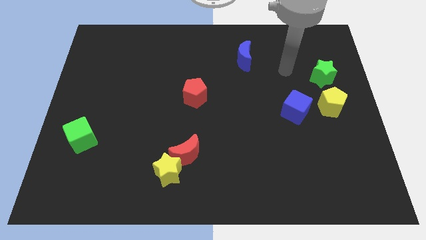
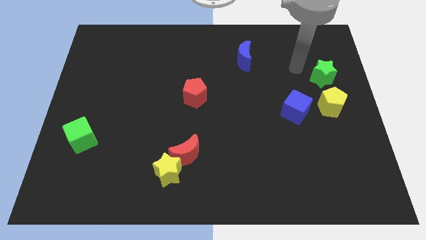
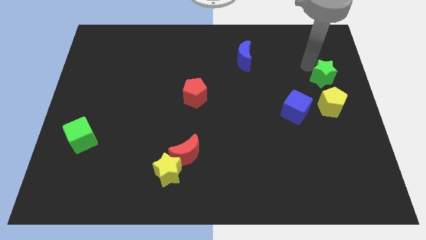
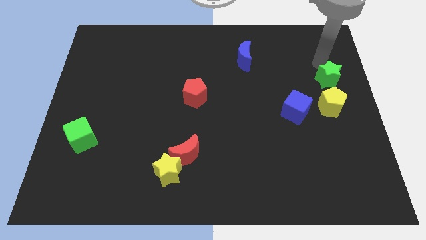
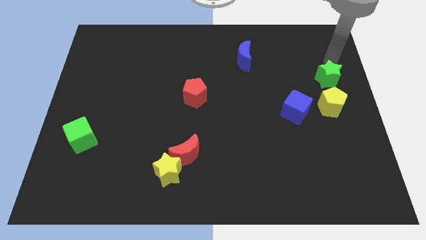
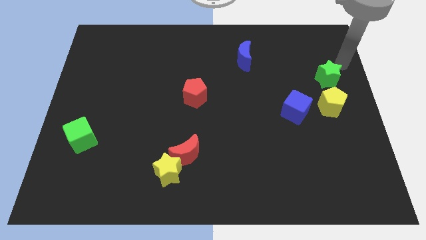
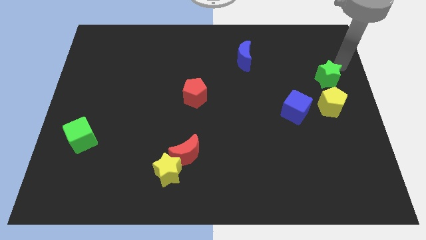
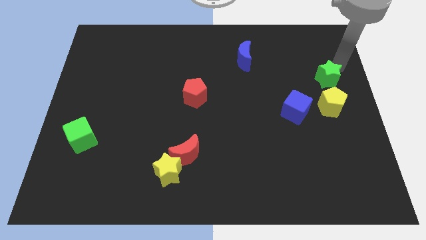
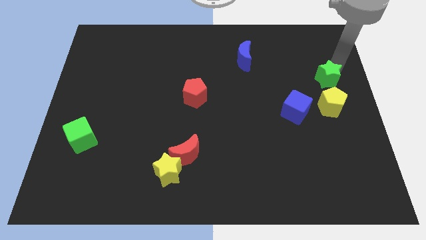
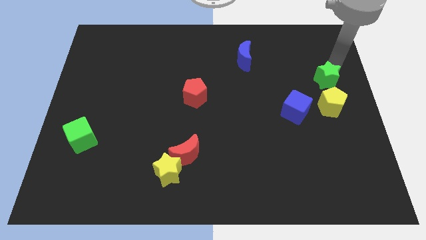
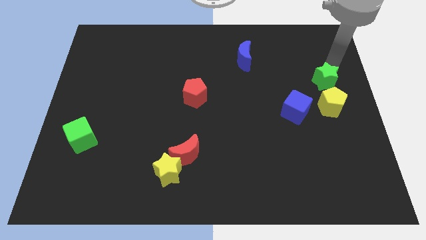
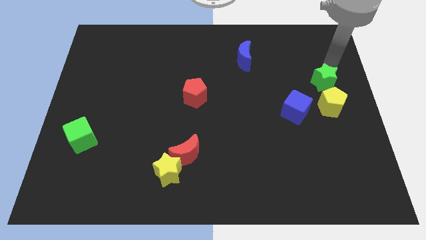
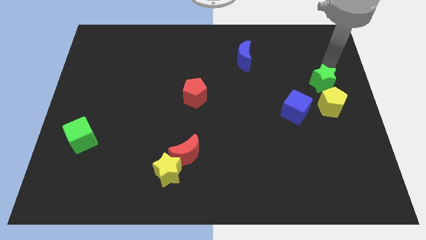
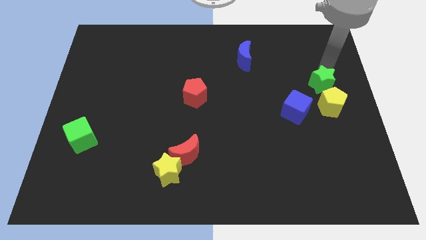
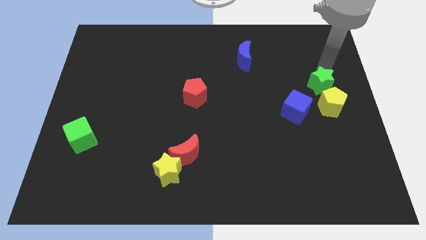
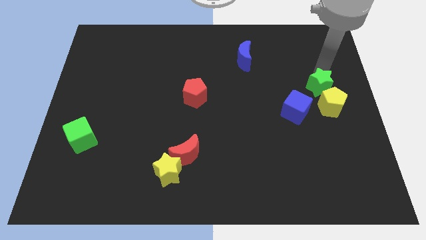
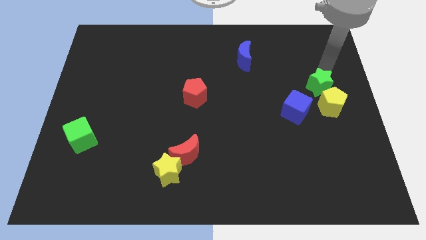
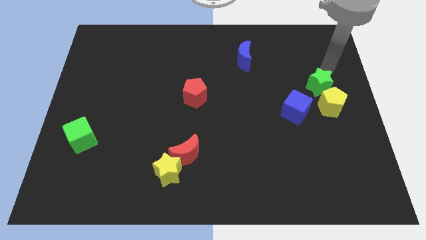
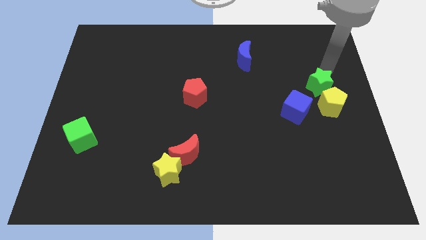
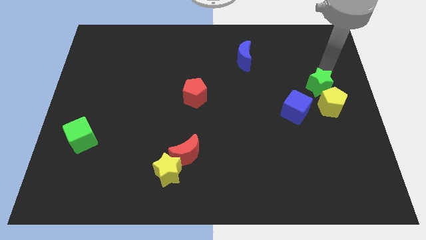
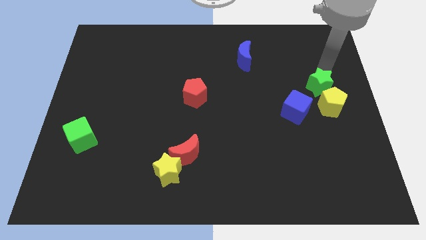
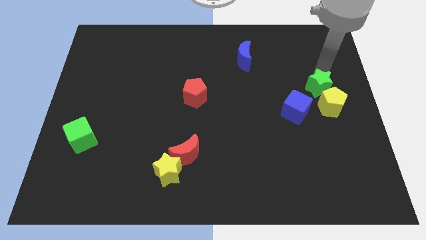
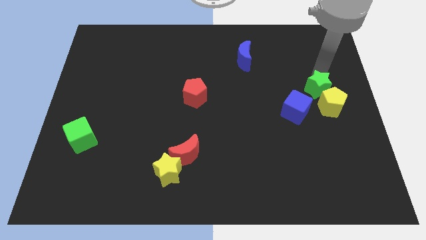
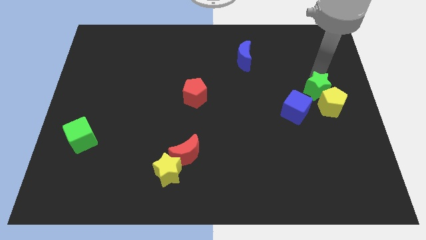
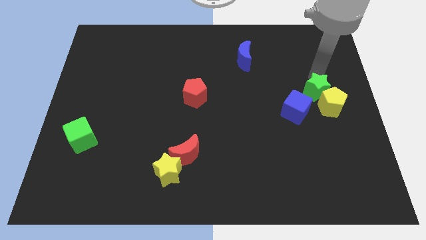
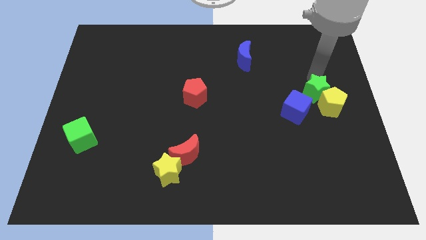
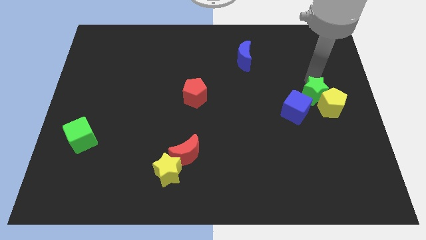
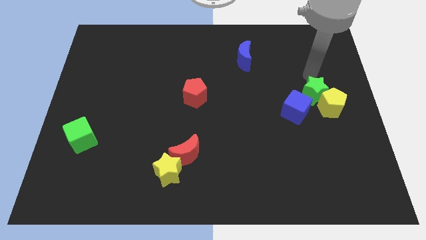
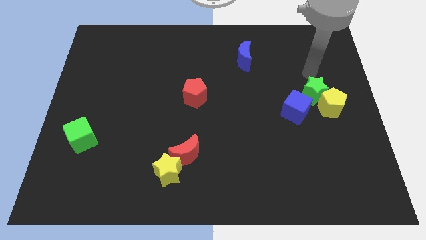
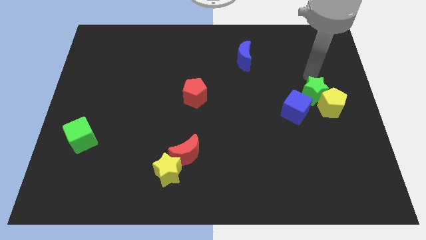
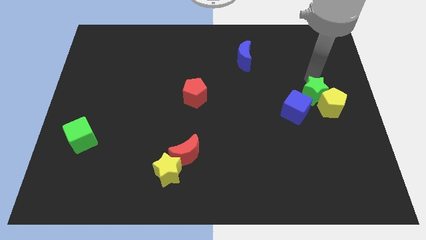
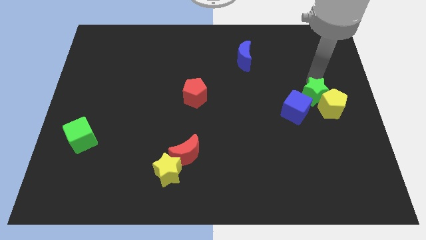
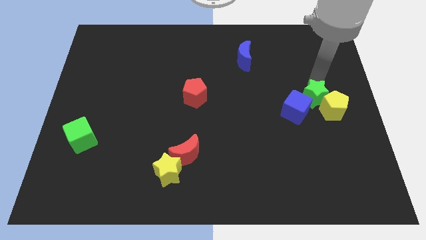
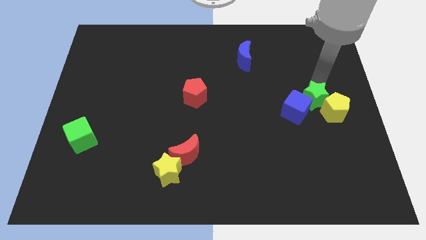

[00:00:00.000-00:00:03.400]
push the green star somewhat downwards

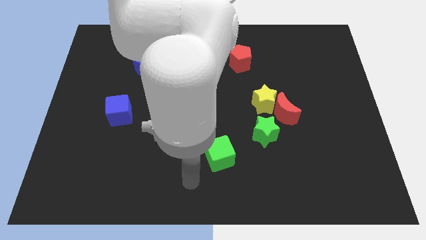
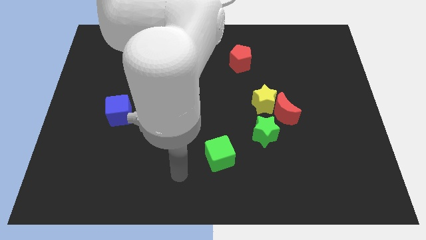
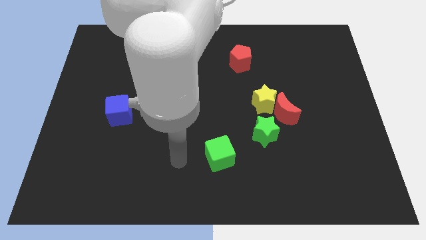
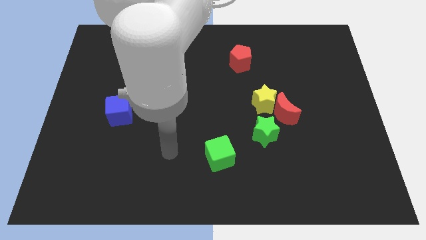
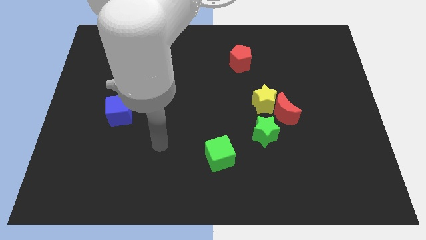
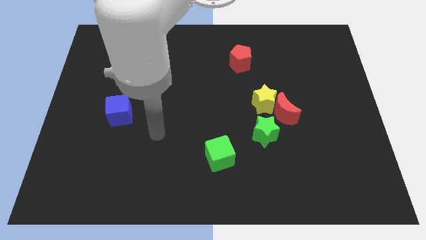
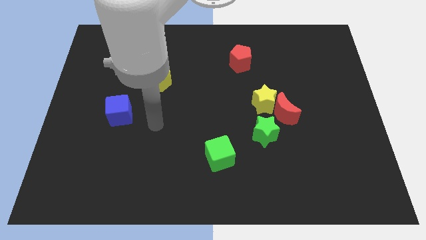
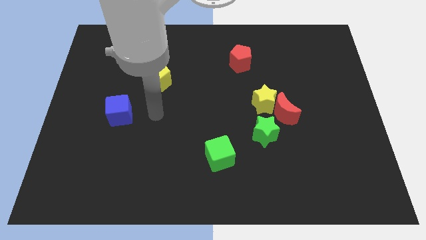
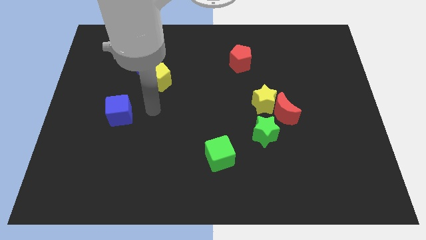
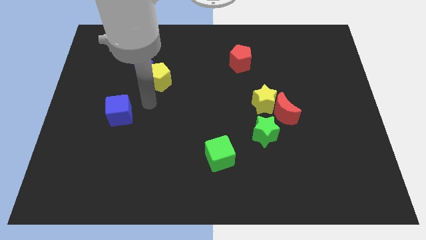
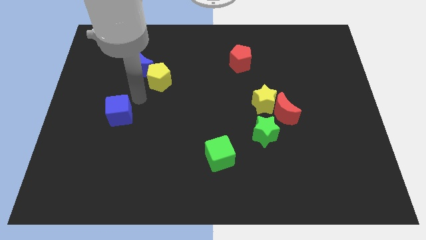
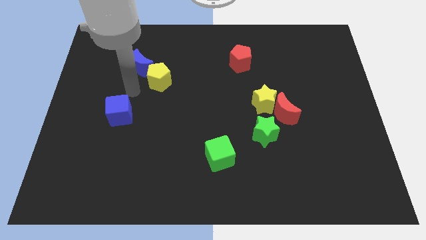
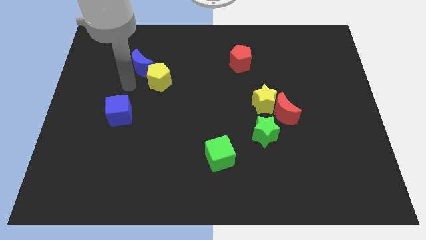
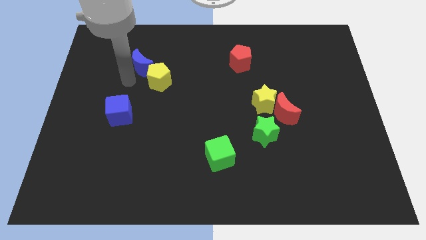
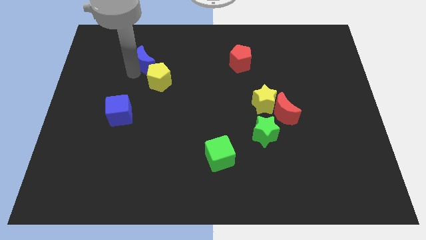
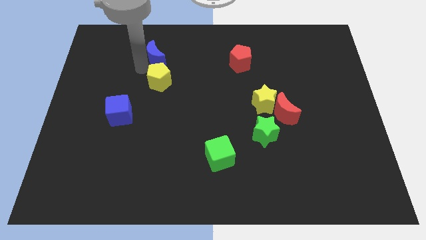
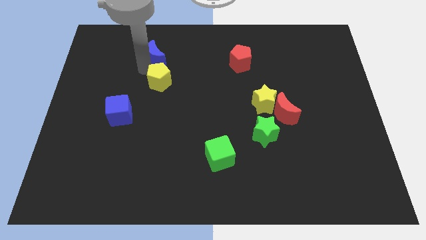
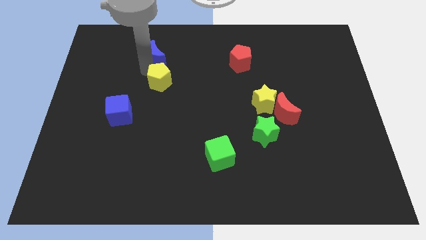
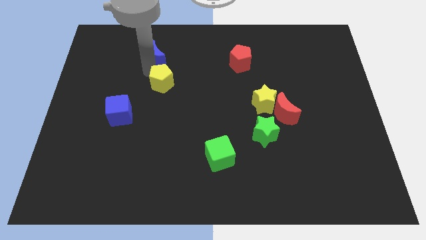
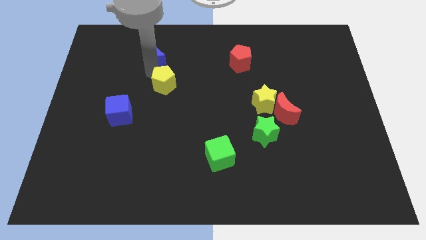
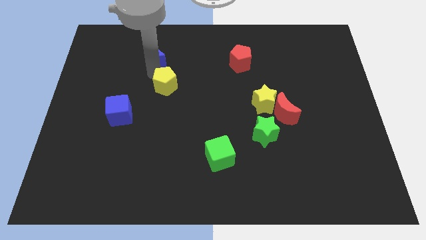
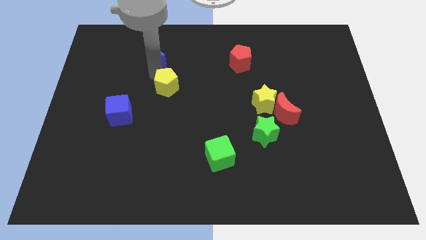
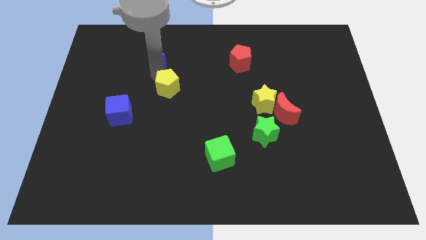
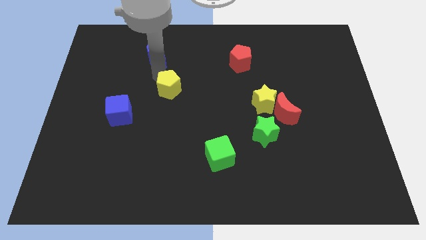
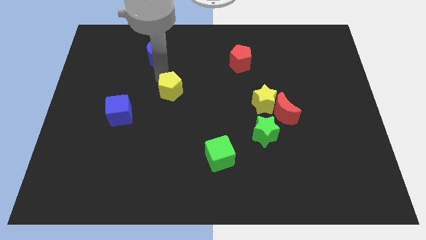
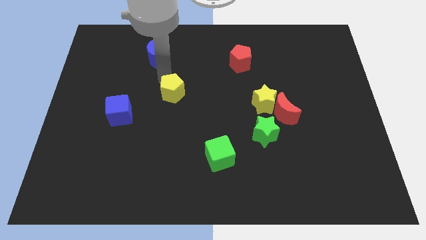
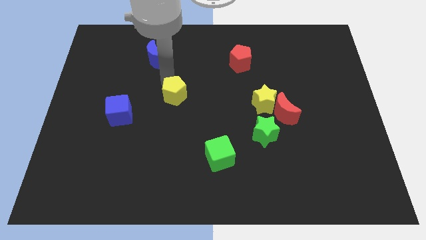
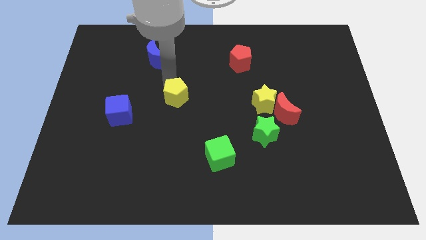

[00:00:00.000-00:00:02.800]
move the yellow pentagon downwards and right somewhat

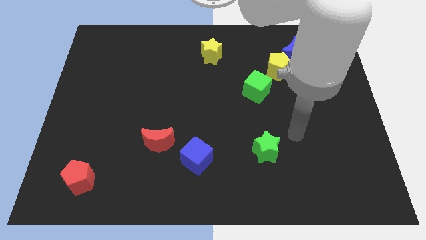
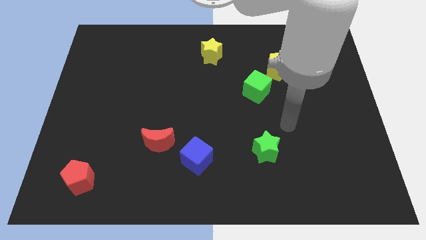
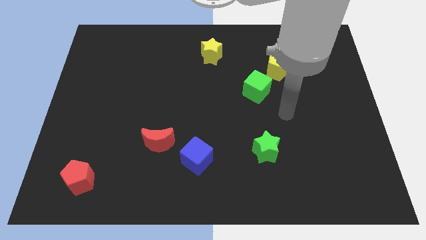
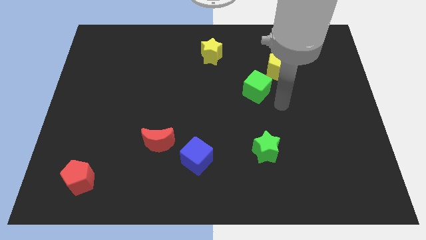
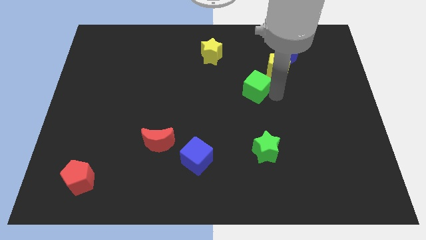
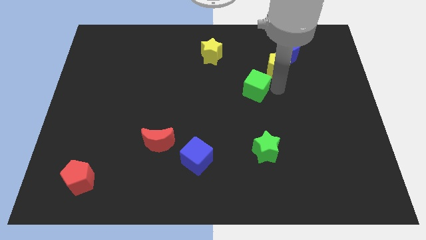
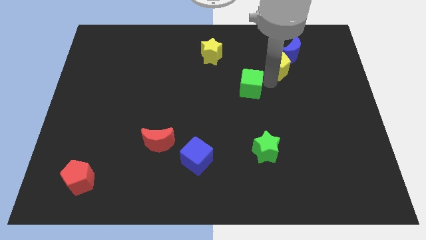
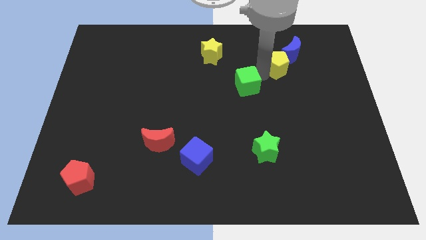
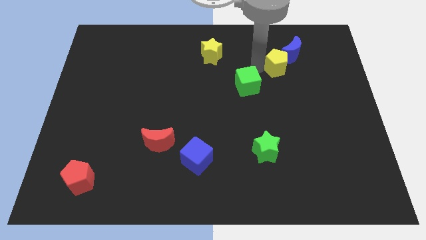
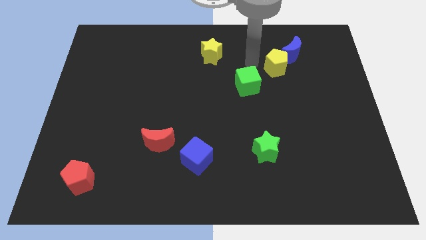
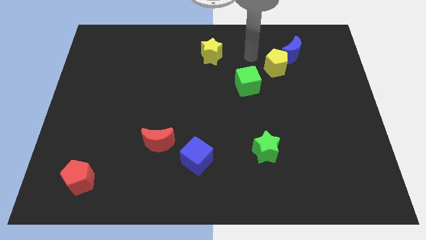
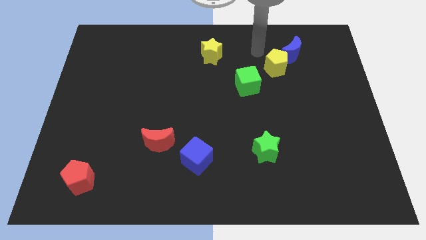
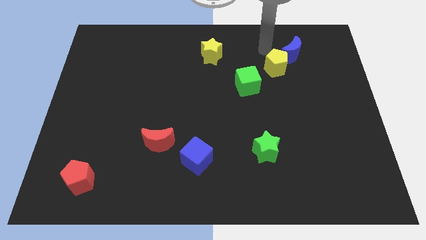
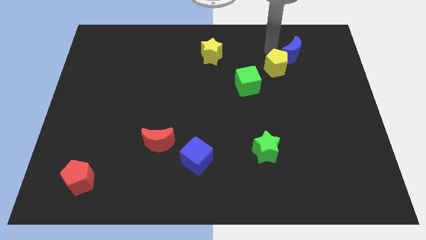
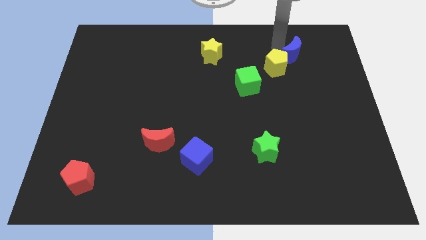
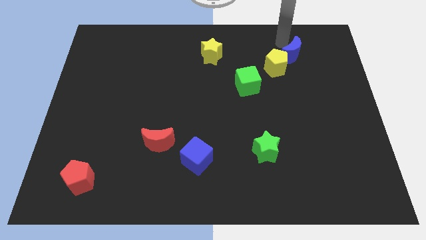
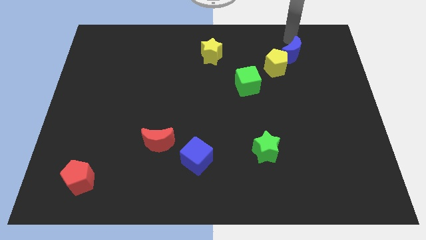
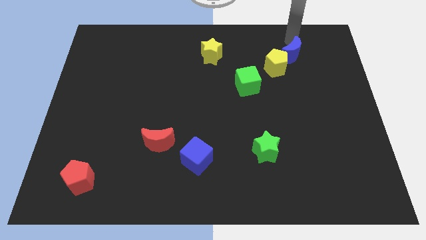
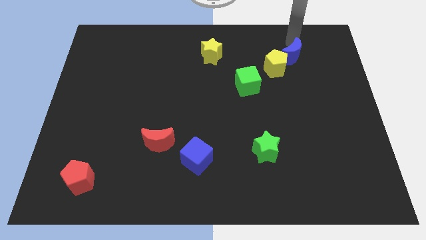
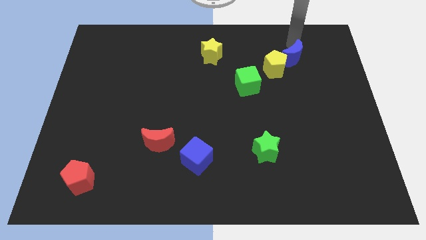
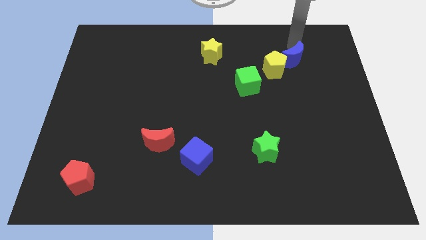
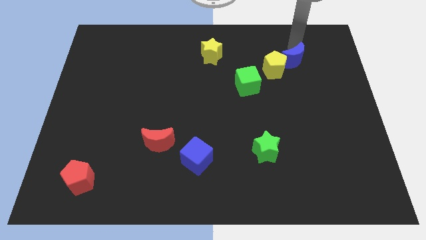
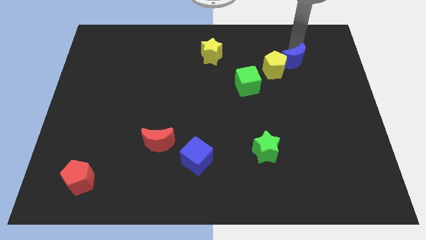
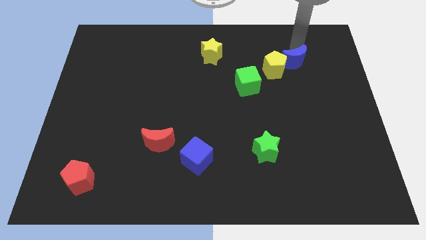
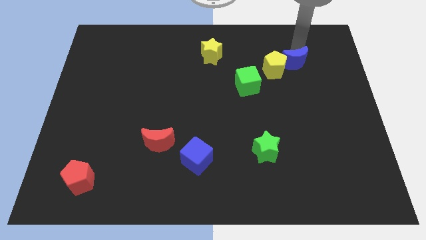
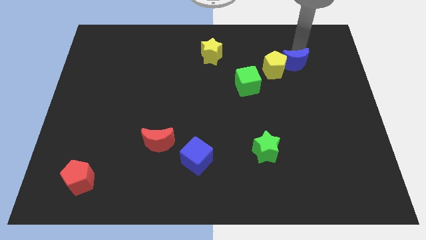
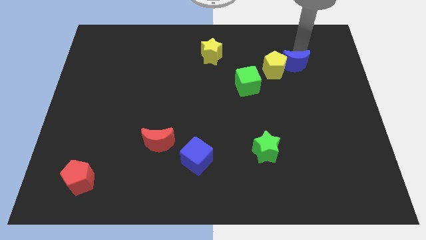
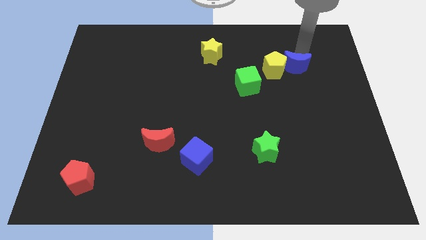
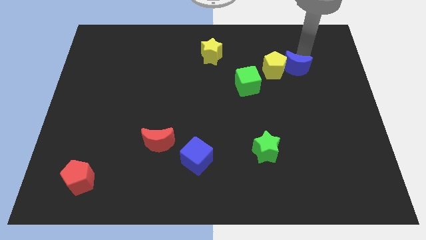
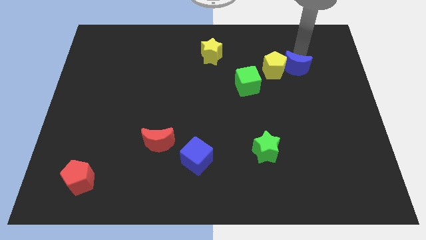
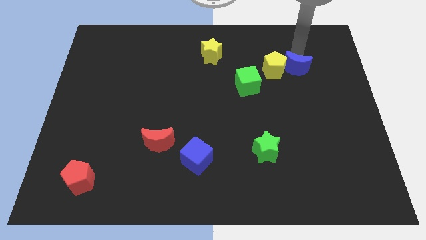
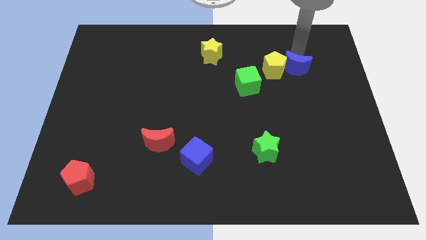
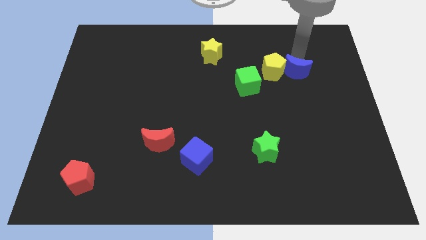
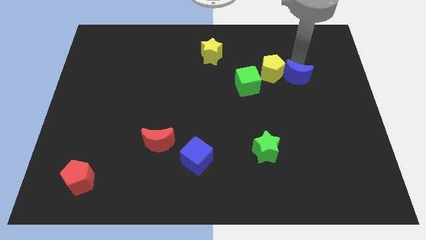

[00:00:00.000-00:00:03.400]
push the blue moon a bit downwards
